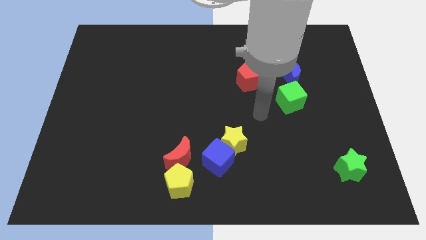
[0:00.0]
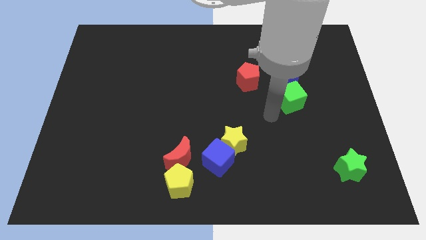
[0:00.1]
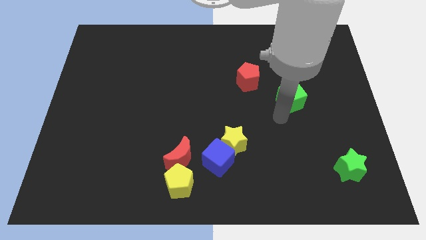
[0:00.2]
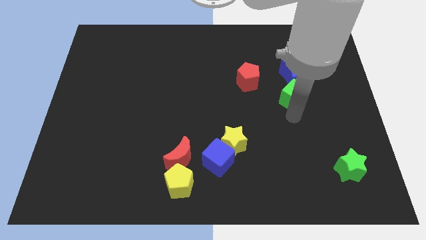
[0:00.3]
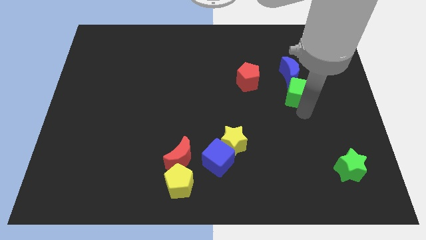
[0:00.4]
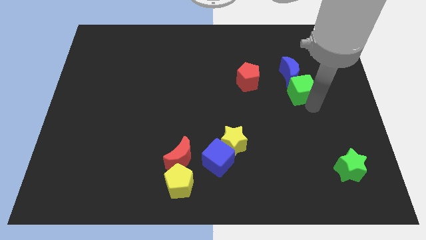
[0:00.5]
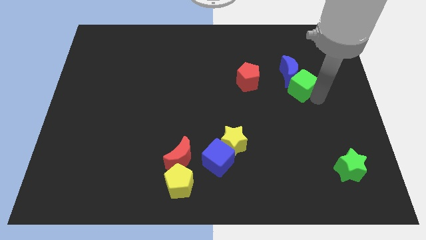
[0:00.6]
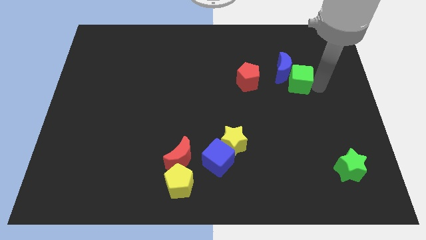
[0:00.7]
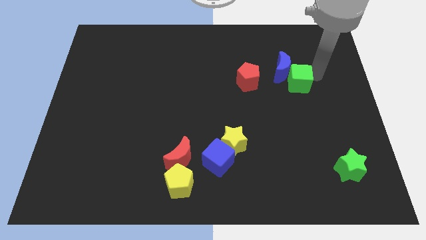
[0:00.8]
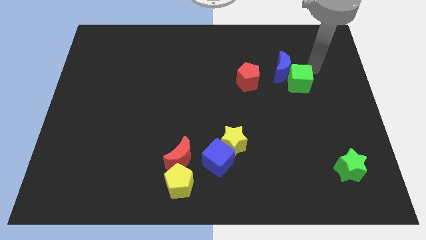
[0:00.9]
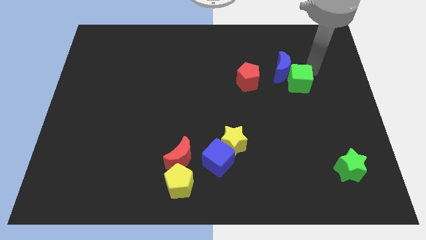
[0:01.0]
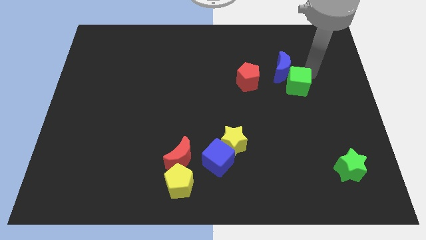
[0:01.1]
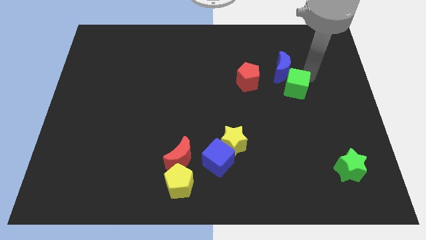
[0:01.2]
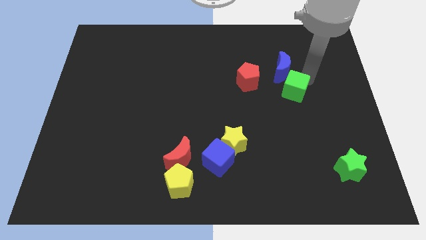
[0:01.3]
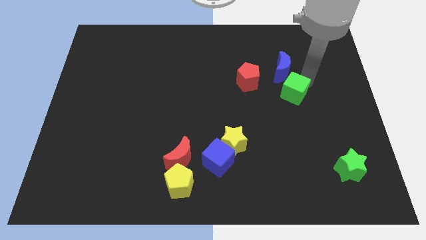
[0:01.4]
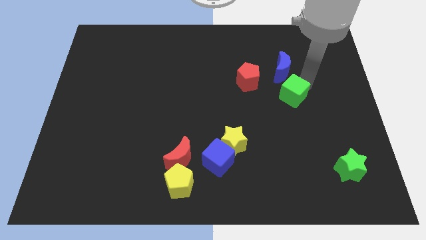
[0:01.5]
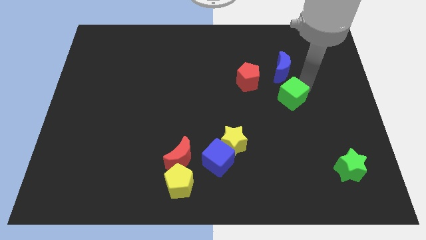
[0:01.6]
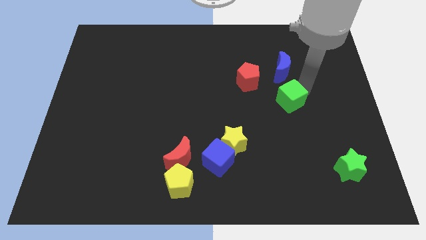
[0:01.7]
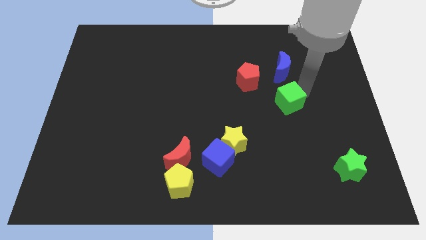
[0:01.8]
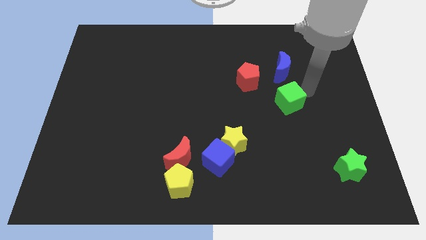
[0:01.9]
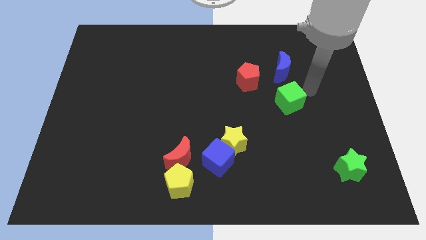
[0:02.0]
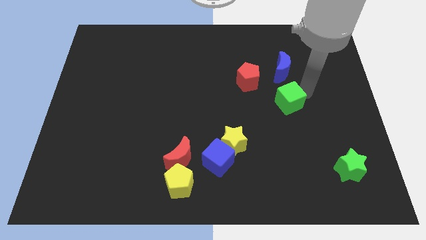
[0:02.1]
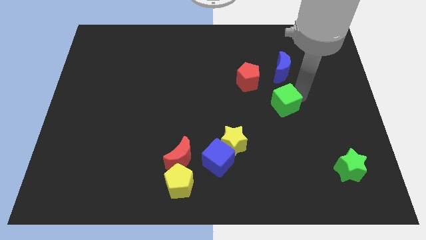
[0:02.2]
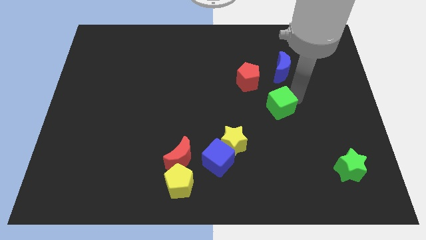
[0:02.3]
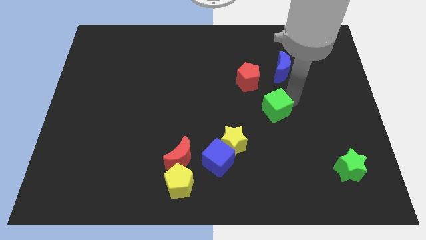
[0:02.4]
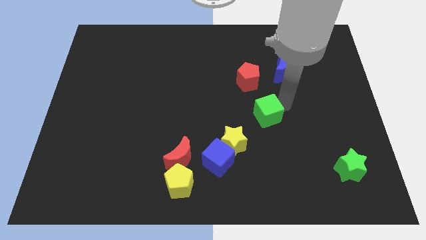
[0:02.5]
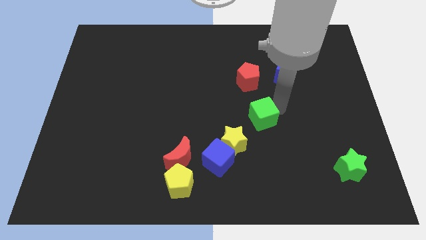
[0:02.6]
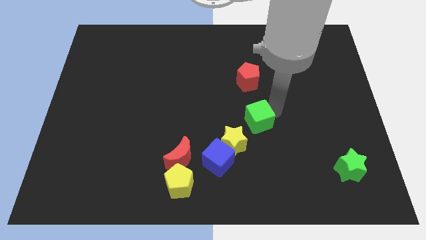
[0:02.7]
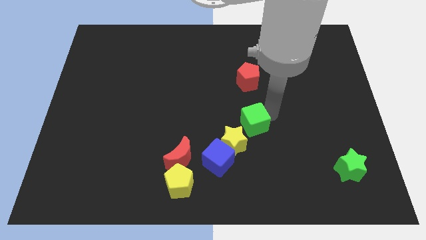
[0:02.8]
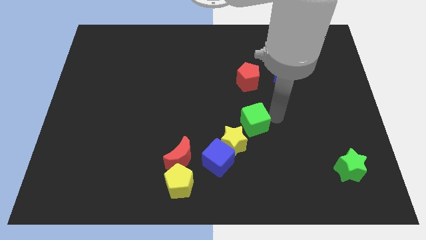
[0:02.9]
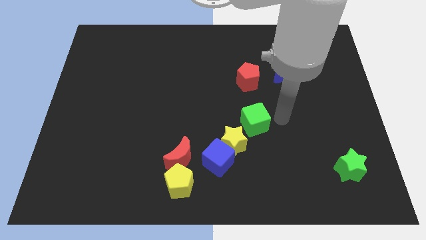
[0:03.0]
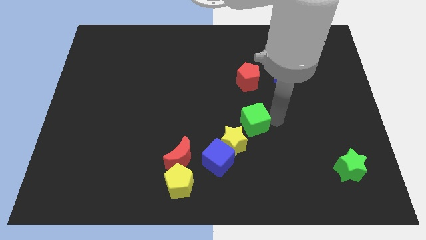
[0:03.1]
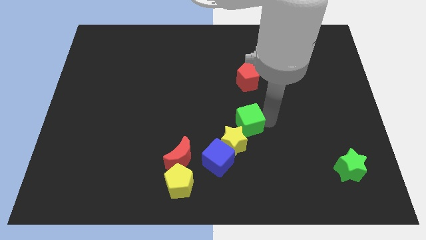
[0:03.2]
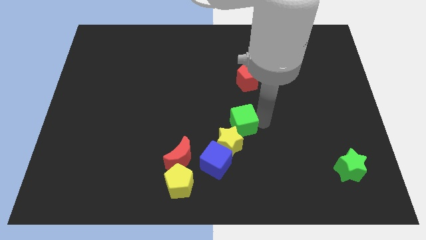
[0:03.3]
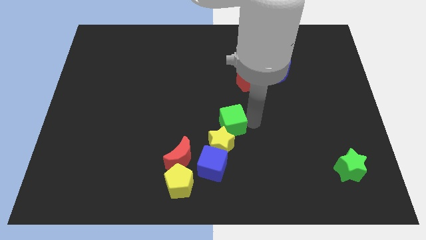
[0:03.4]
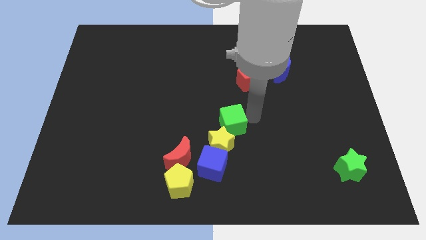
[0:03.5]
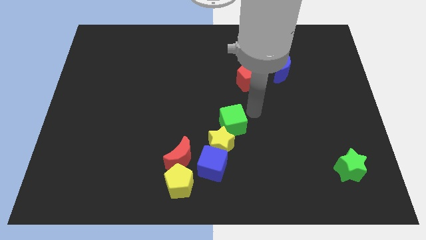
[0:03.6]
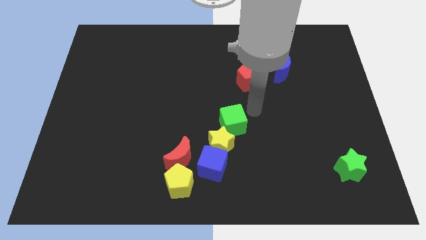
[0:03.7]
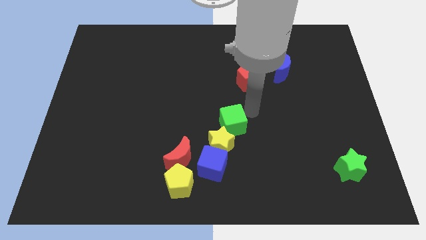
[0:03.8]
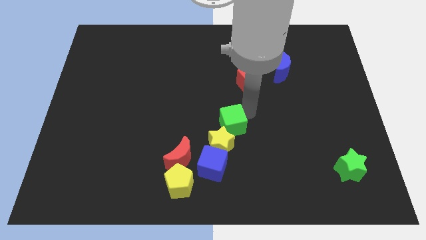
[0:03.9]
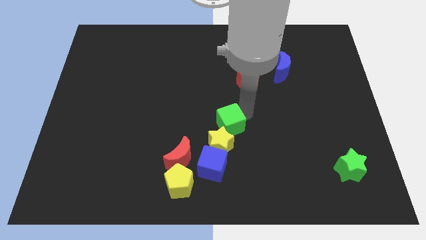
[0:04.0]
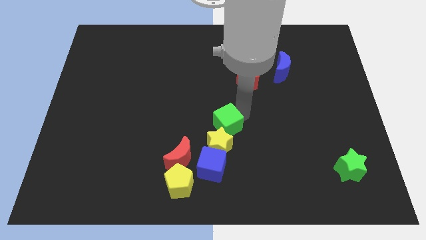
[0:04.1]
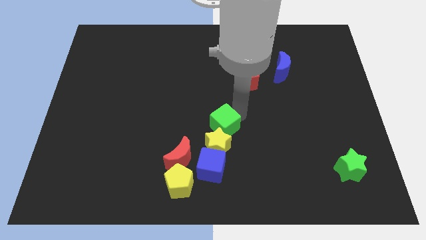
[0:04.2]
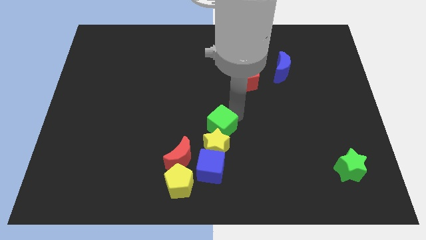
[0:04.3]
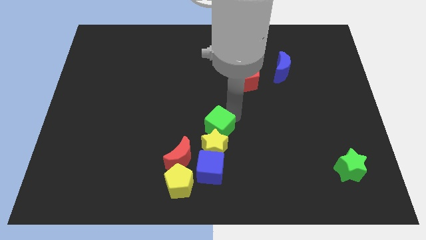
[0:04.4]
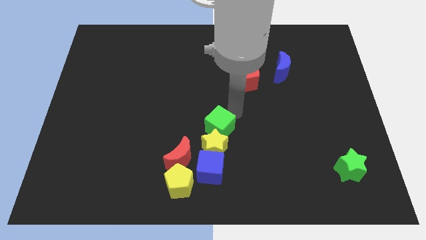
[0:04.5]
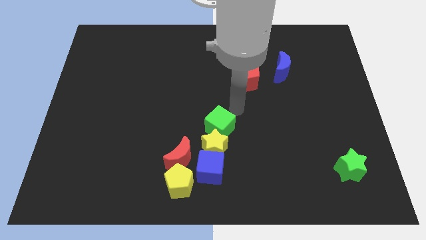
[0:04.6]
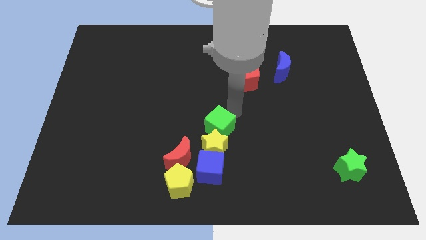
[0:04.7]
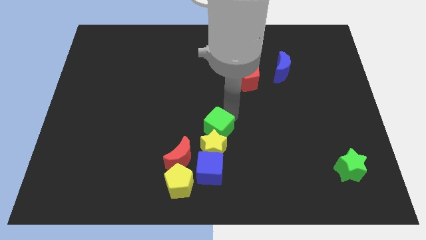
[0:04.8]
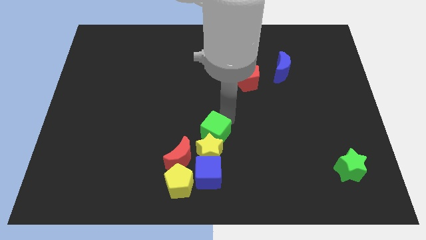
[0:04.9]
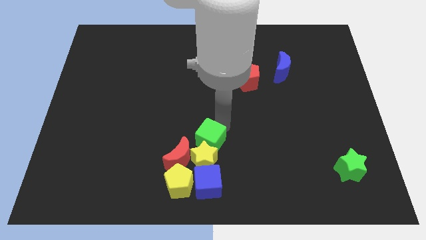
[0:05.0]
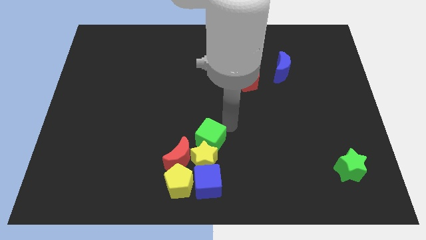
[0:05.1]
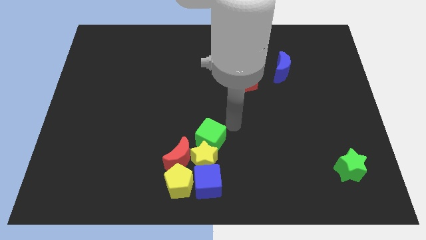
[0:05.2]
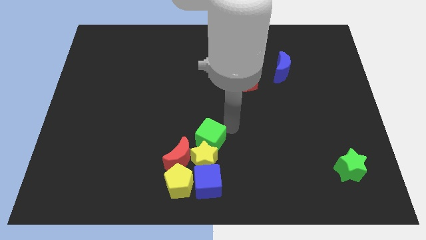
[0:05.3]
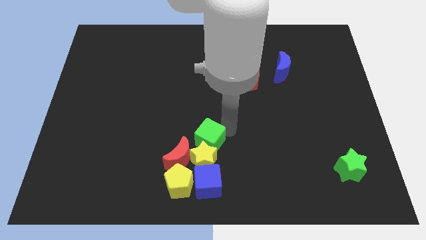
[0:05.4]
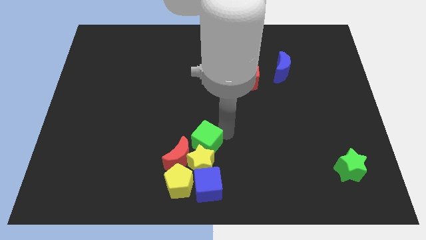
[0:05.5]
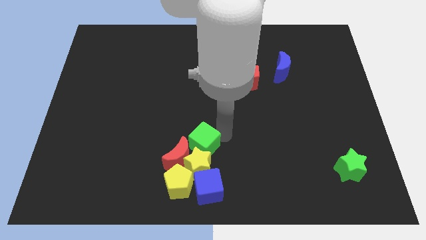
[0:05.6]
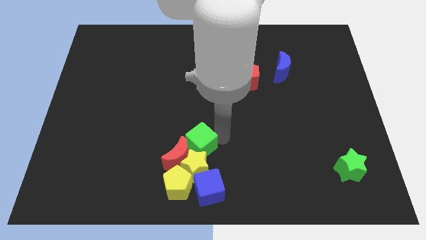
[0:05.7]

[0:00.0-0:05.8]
push the green cube to the red moon

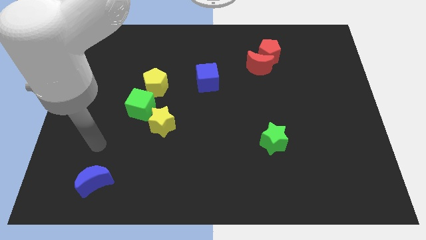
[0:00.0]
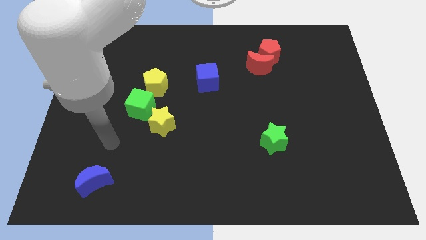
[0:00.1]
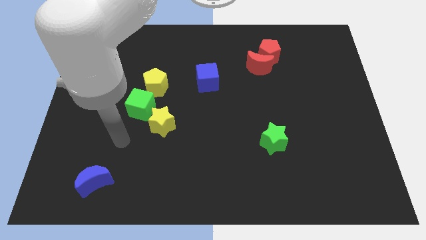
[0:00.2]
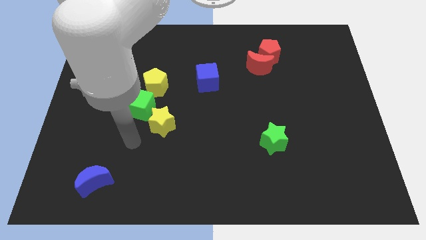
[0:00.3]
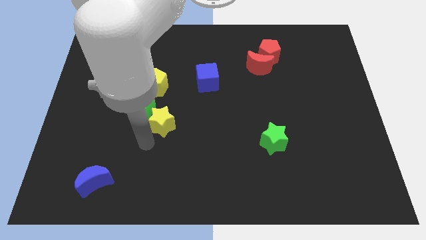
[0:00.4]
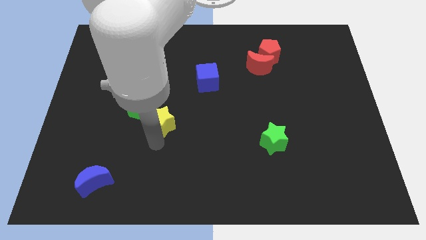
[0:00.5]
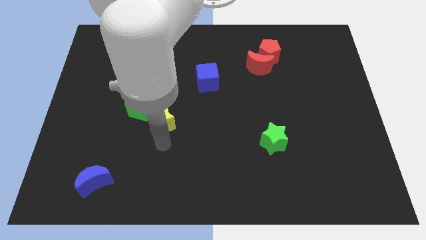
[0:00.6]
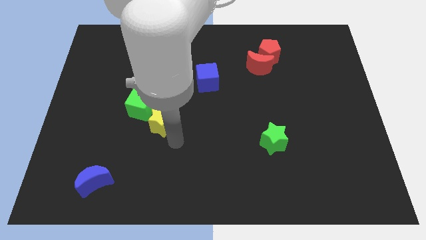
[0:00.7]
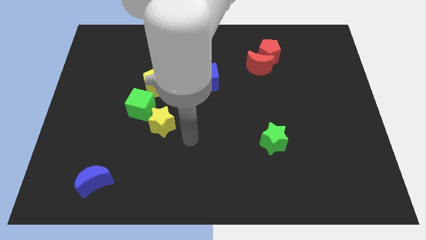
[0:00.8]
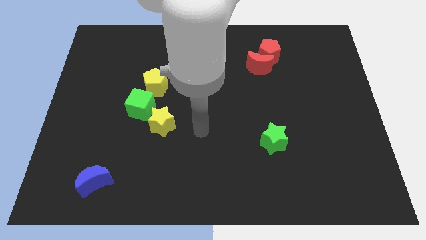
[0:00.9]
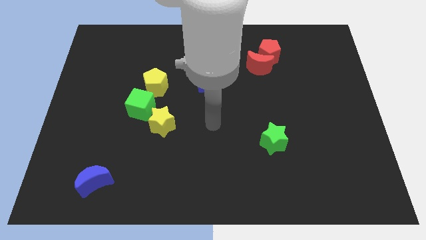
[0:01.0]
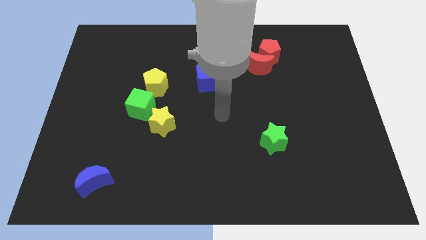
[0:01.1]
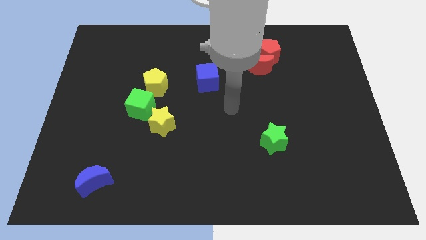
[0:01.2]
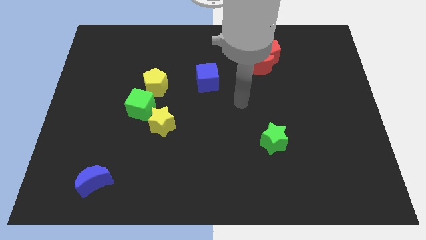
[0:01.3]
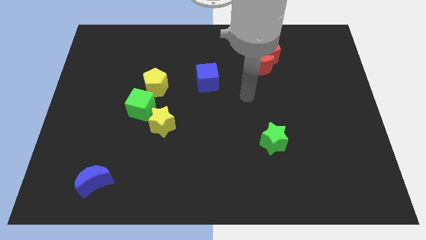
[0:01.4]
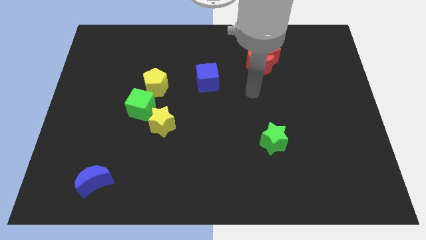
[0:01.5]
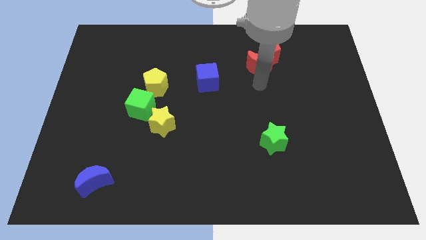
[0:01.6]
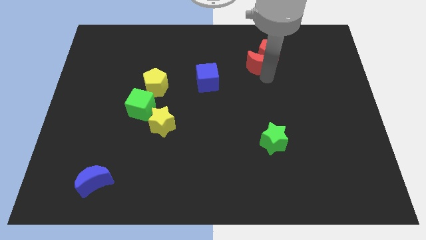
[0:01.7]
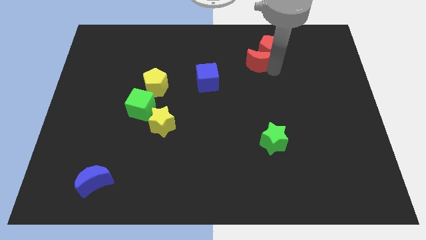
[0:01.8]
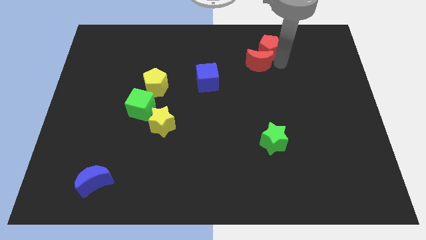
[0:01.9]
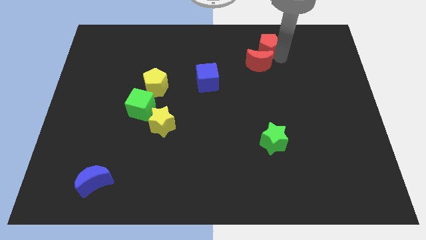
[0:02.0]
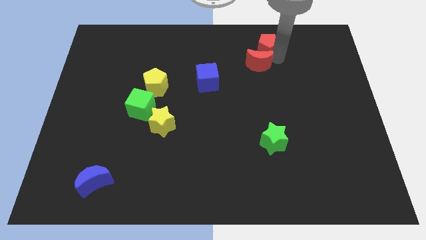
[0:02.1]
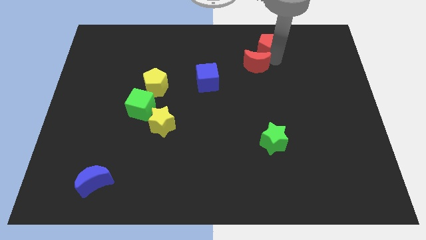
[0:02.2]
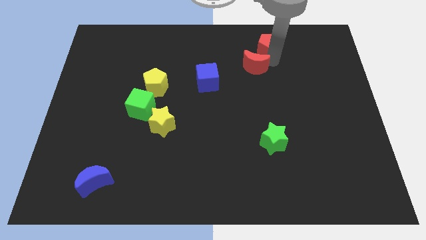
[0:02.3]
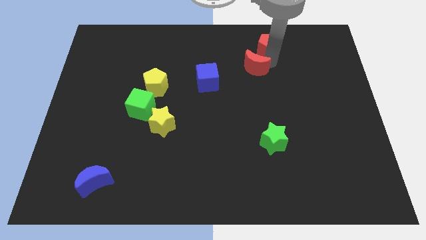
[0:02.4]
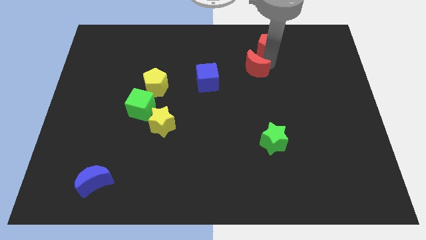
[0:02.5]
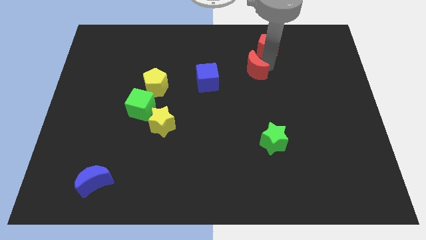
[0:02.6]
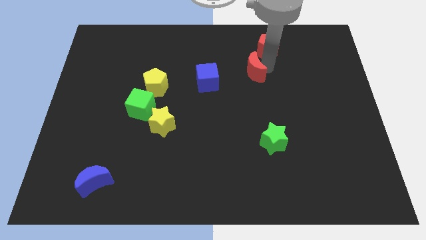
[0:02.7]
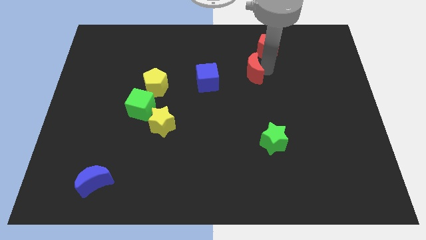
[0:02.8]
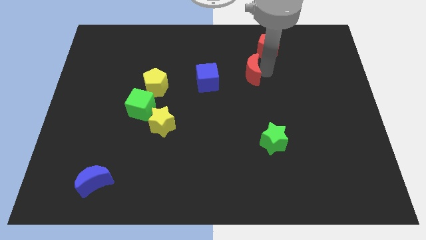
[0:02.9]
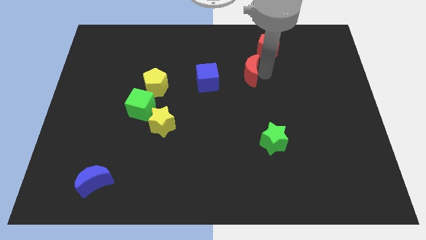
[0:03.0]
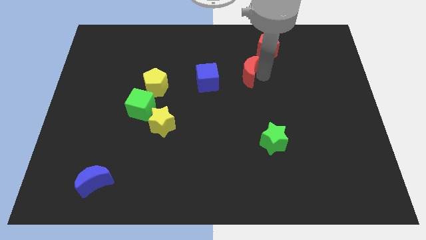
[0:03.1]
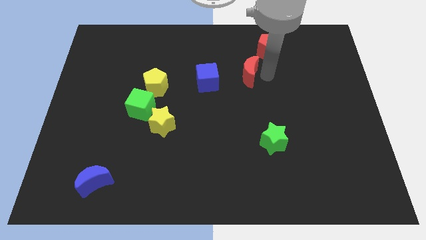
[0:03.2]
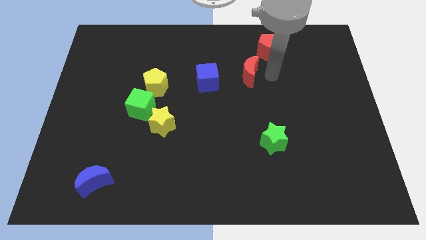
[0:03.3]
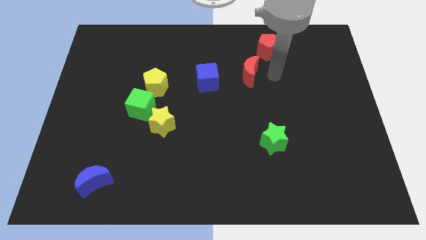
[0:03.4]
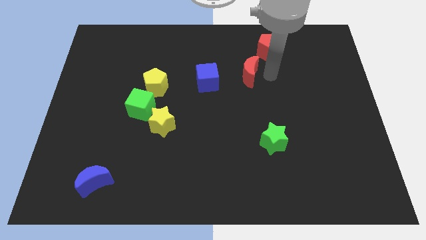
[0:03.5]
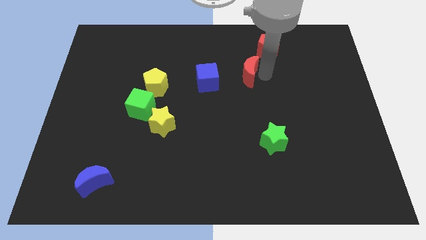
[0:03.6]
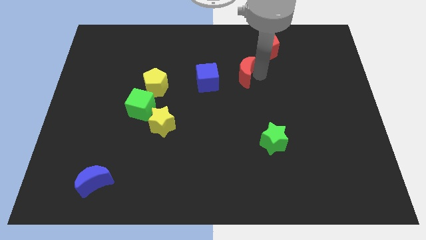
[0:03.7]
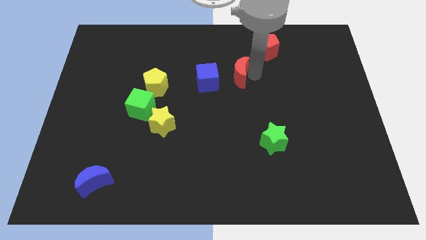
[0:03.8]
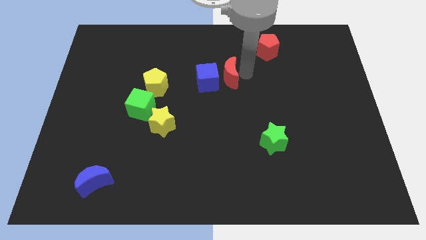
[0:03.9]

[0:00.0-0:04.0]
move the red moon close to the blue cube
